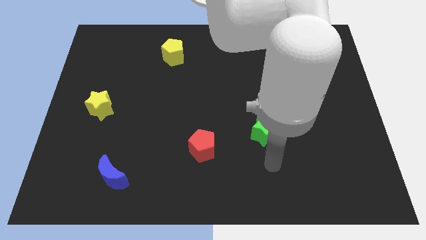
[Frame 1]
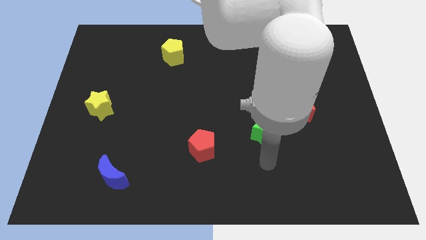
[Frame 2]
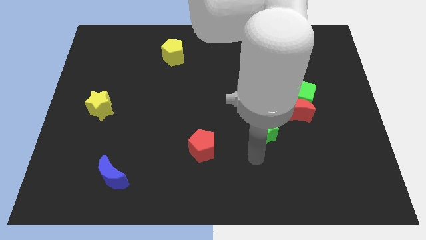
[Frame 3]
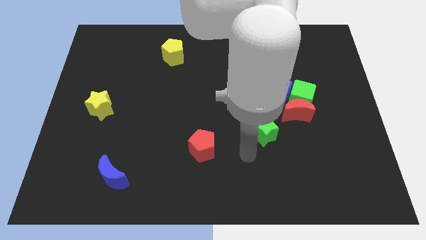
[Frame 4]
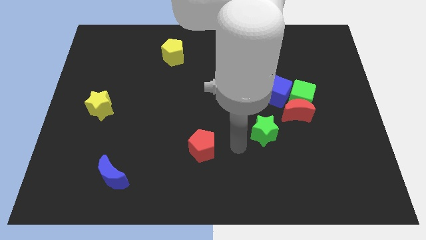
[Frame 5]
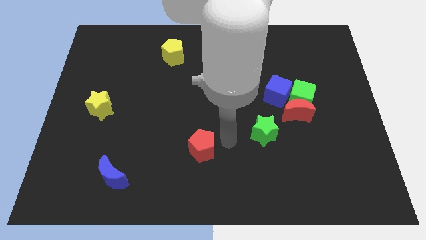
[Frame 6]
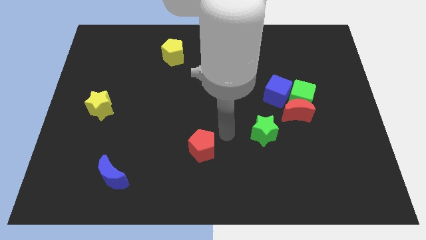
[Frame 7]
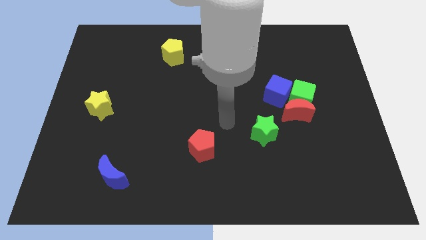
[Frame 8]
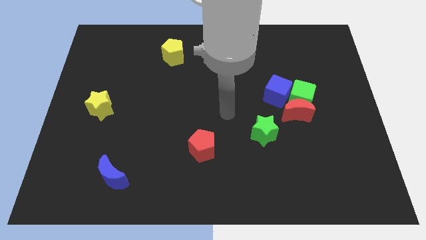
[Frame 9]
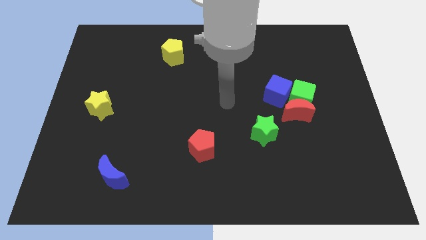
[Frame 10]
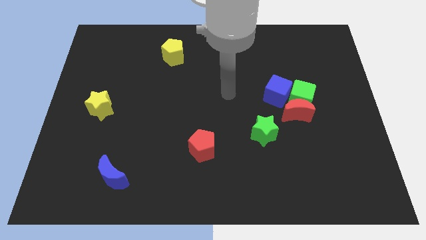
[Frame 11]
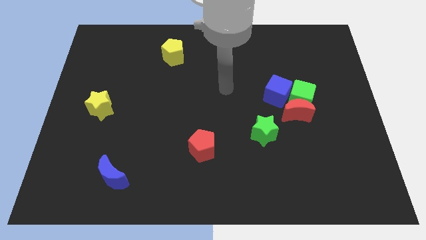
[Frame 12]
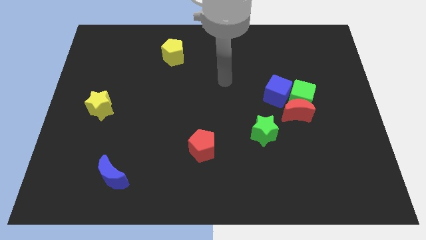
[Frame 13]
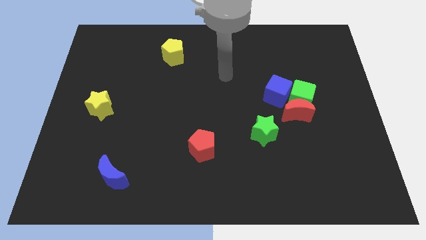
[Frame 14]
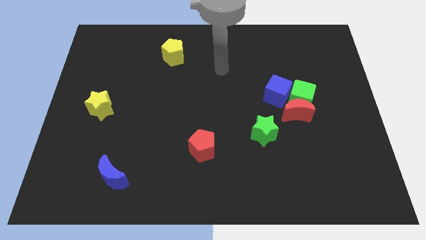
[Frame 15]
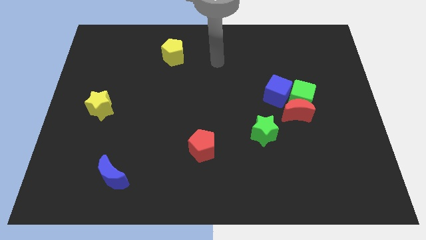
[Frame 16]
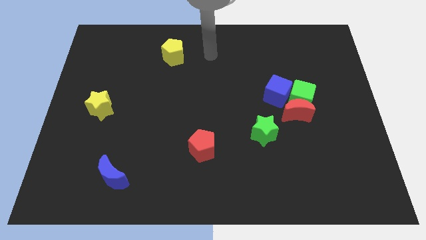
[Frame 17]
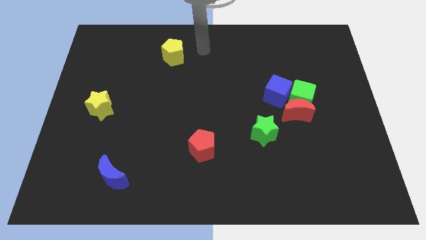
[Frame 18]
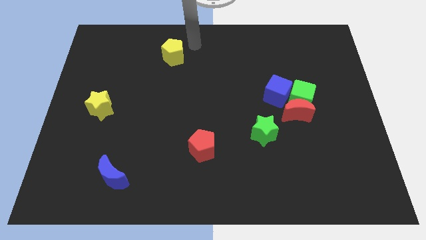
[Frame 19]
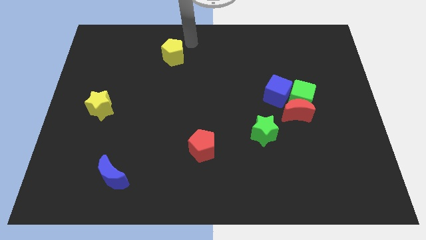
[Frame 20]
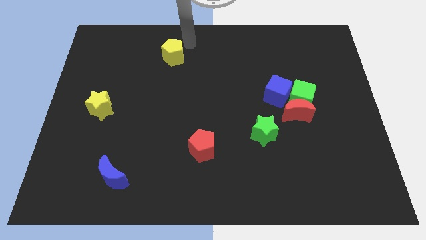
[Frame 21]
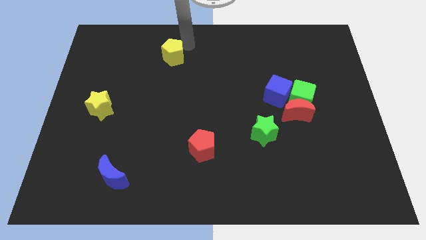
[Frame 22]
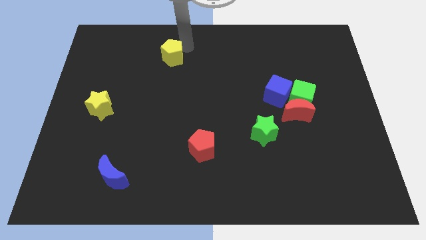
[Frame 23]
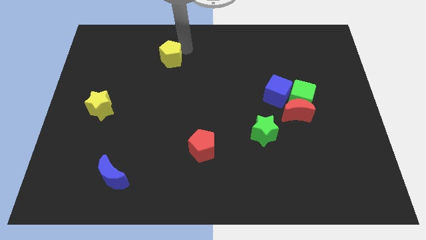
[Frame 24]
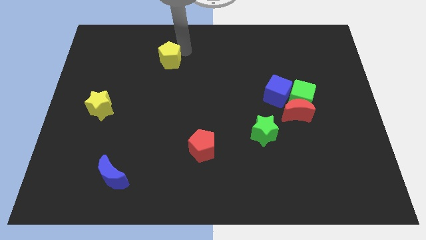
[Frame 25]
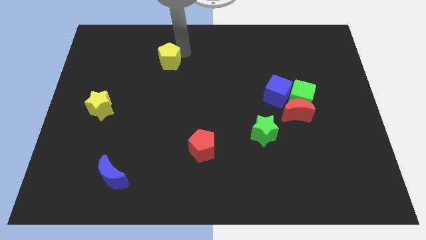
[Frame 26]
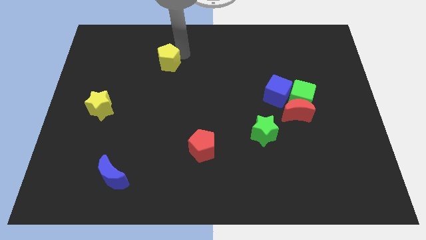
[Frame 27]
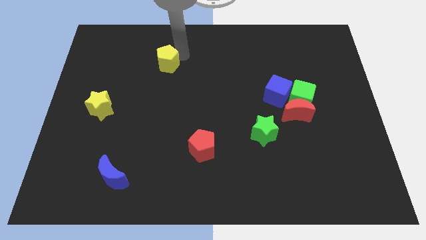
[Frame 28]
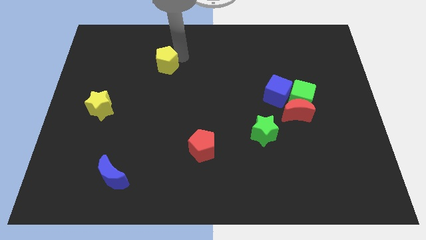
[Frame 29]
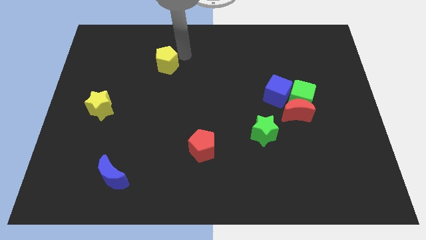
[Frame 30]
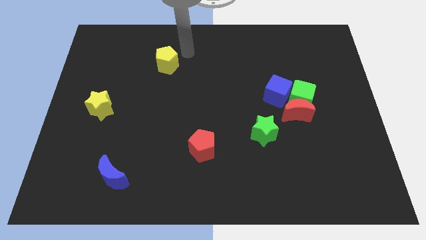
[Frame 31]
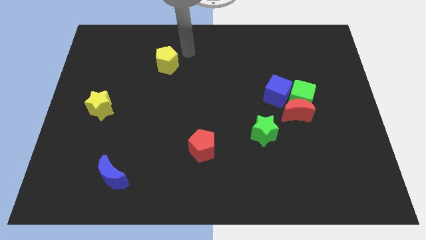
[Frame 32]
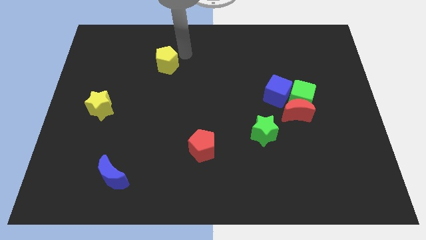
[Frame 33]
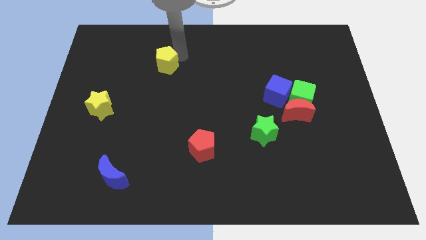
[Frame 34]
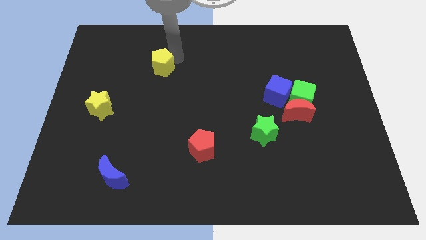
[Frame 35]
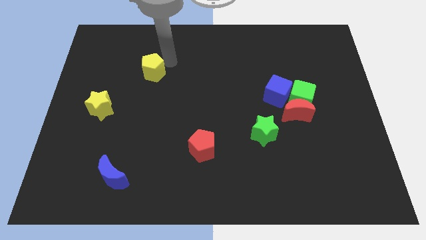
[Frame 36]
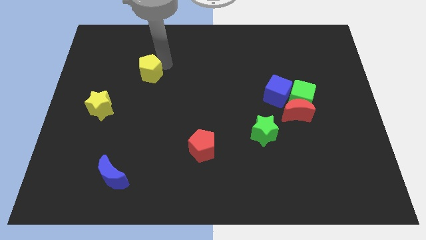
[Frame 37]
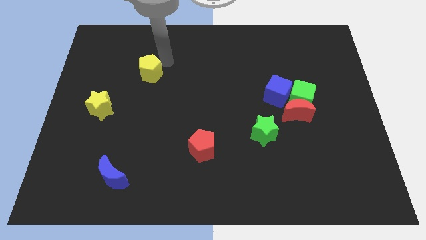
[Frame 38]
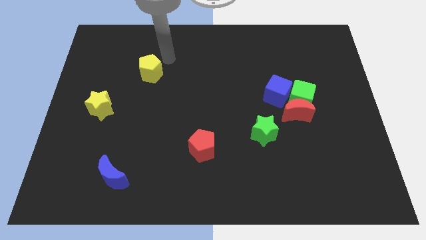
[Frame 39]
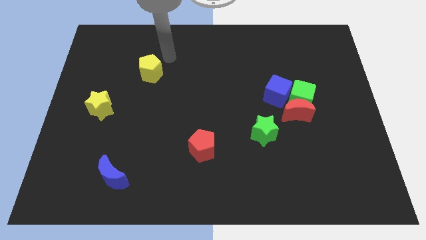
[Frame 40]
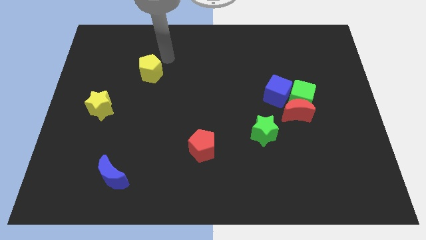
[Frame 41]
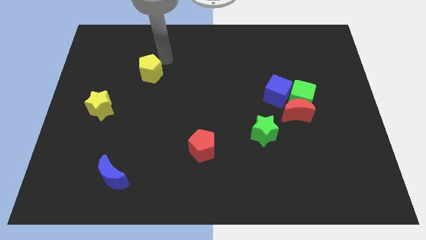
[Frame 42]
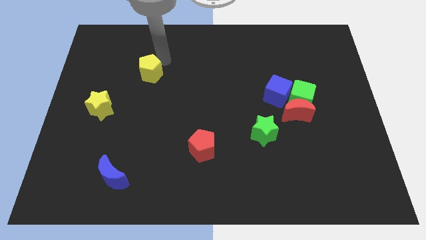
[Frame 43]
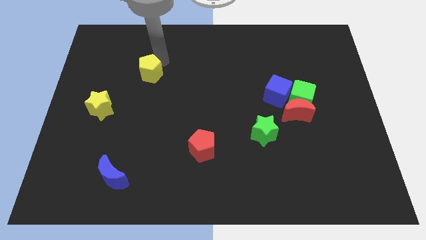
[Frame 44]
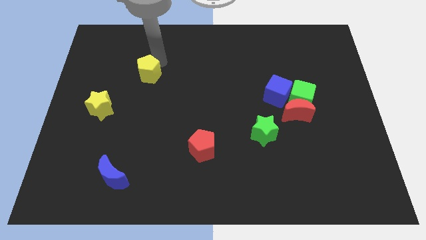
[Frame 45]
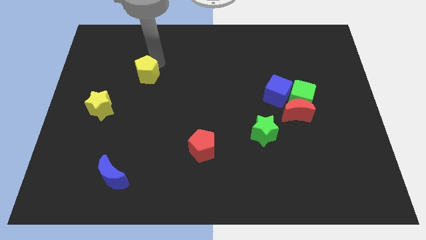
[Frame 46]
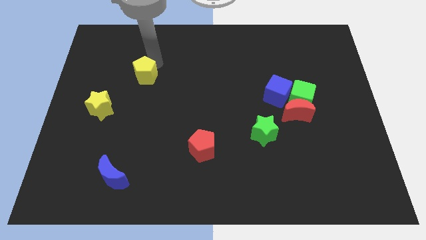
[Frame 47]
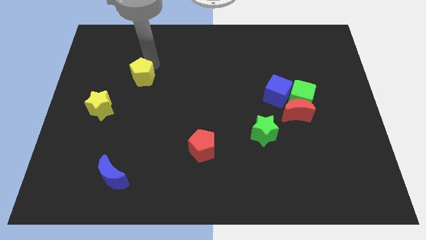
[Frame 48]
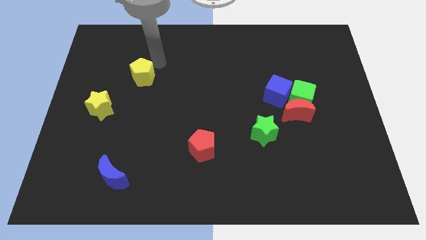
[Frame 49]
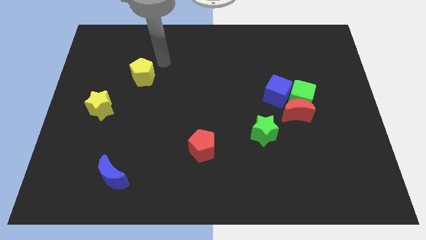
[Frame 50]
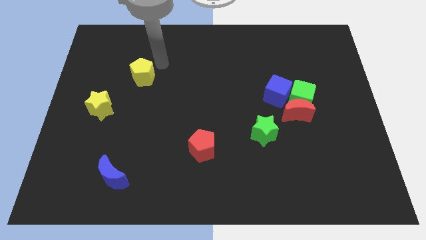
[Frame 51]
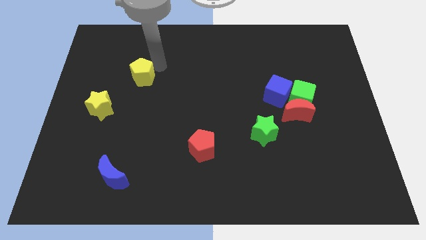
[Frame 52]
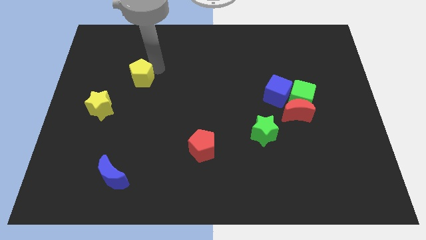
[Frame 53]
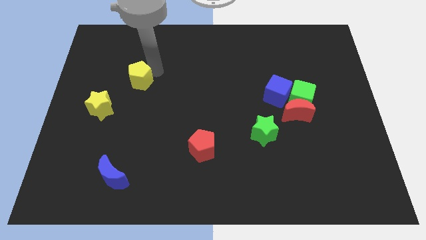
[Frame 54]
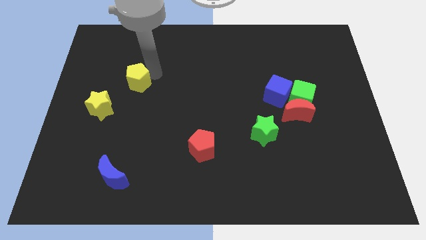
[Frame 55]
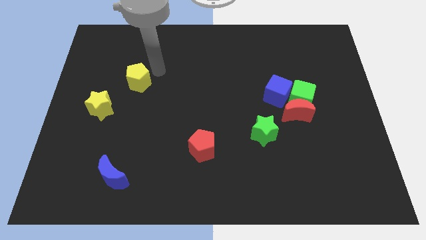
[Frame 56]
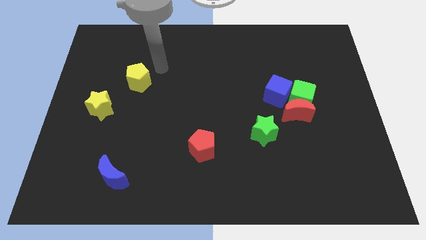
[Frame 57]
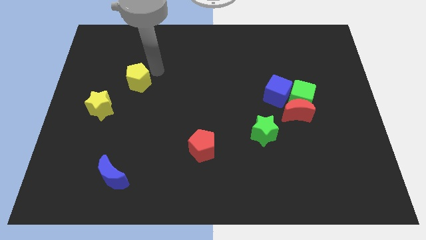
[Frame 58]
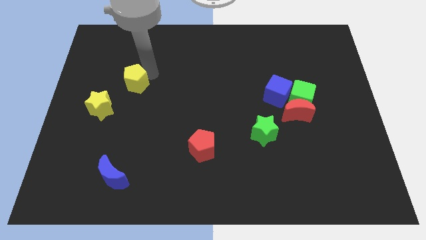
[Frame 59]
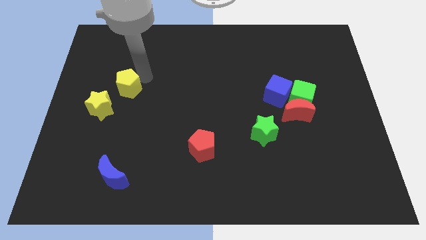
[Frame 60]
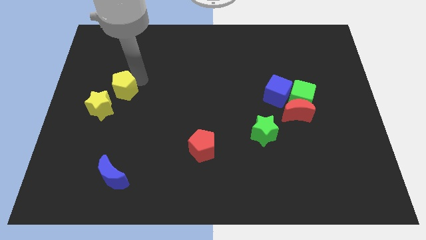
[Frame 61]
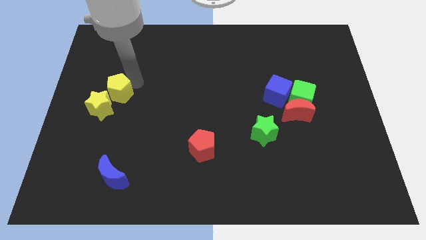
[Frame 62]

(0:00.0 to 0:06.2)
move the yellow pentagon to the yellow star

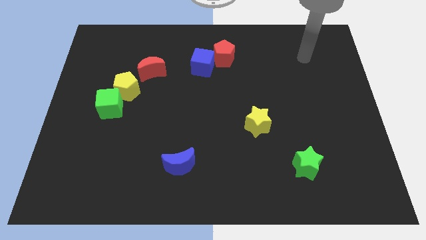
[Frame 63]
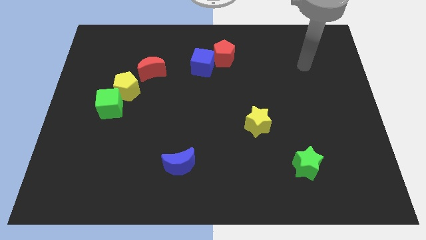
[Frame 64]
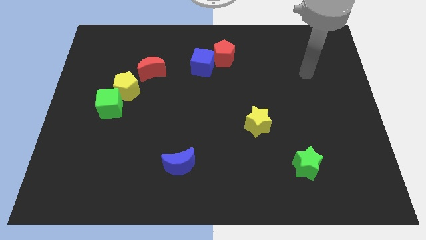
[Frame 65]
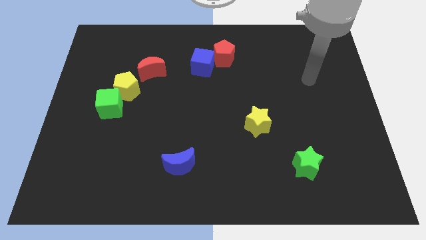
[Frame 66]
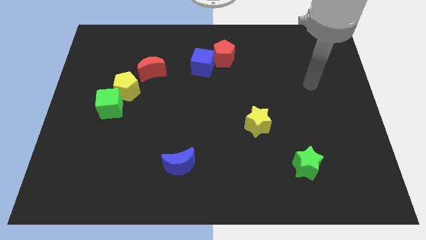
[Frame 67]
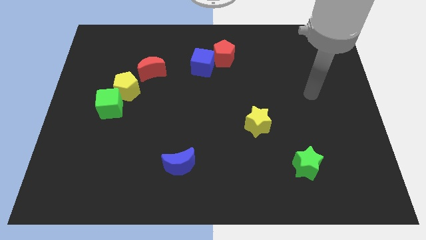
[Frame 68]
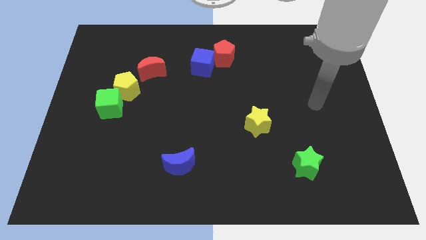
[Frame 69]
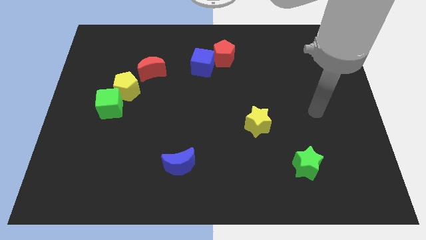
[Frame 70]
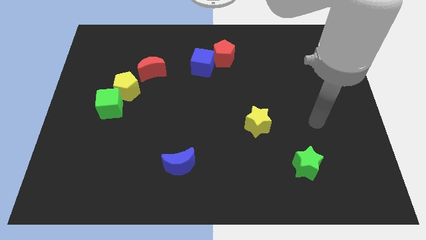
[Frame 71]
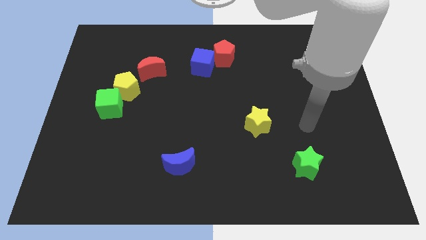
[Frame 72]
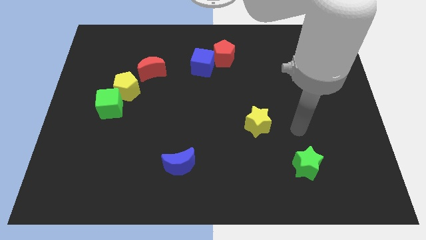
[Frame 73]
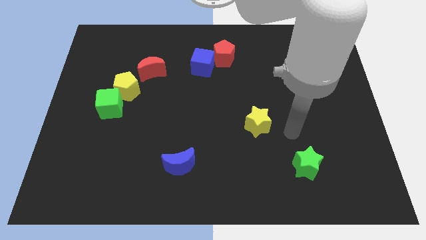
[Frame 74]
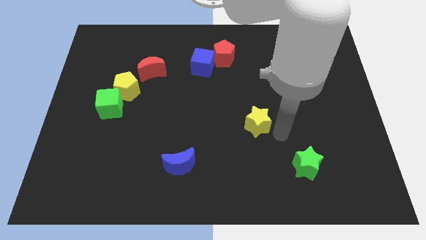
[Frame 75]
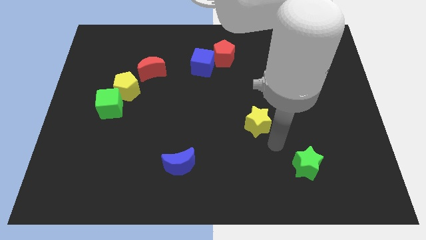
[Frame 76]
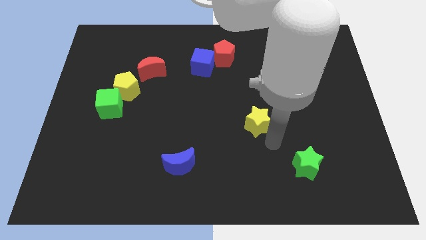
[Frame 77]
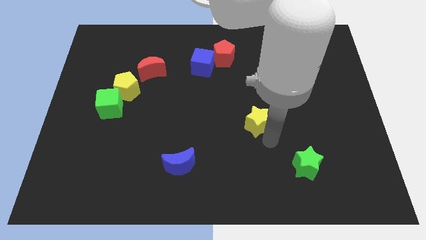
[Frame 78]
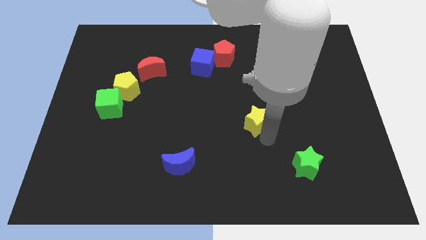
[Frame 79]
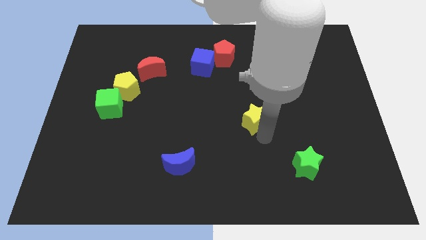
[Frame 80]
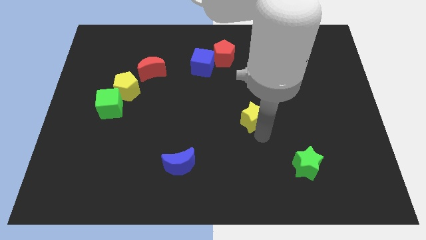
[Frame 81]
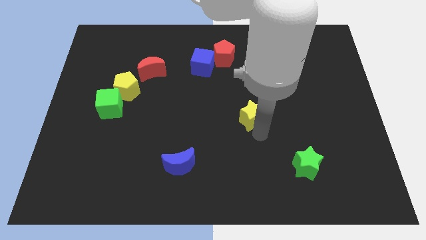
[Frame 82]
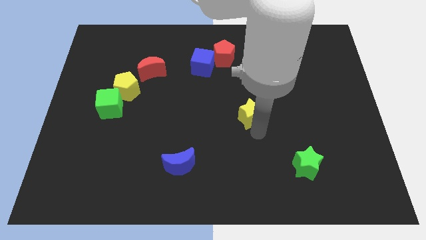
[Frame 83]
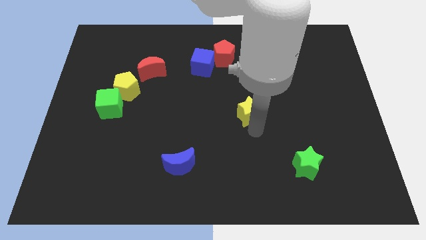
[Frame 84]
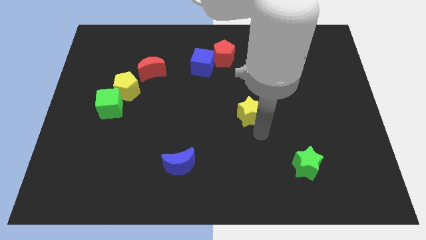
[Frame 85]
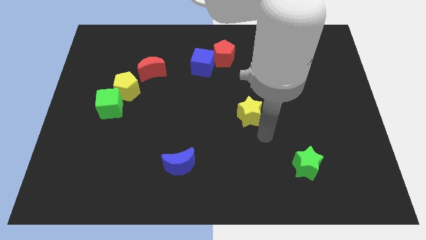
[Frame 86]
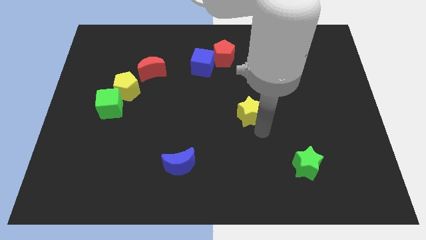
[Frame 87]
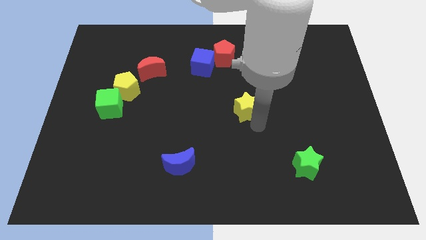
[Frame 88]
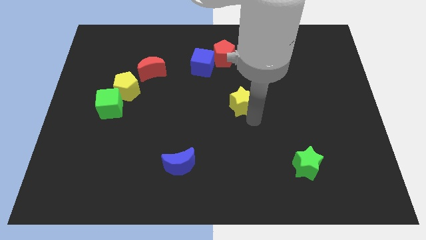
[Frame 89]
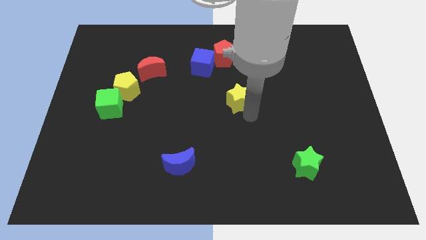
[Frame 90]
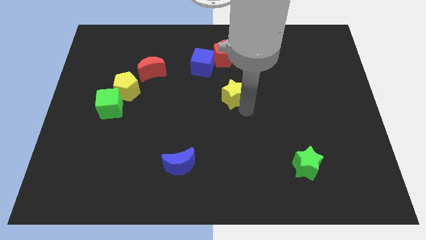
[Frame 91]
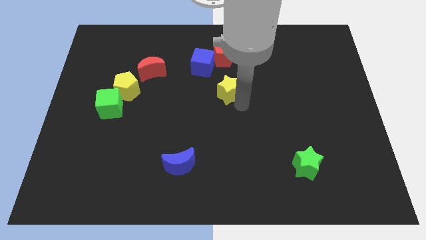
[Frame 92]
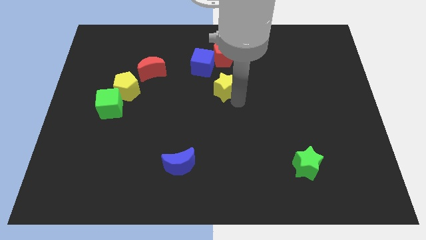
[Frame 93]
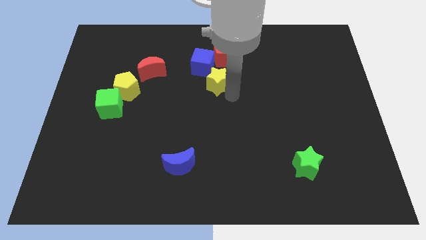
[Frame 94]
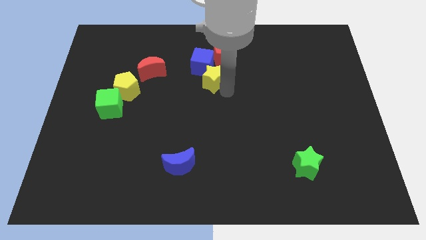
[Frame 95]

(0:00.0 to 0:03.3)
put the yellow star next to the blue cube
